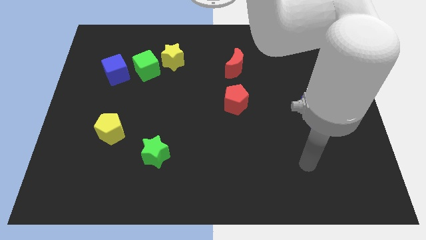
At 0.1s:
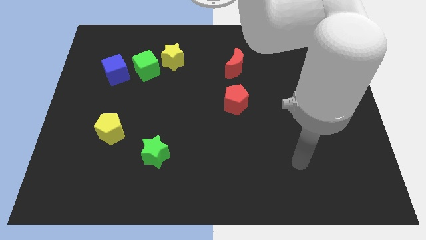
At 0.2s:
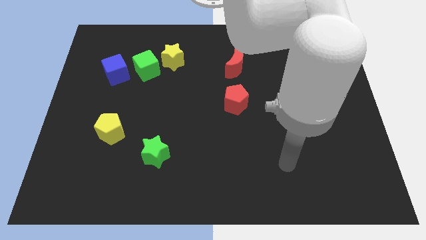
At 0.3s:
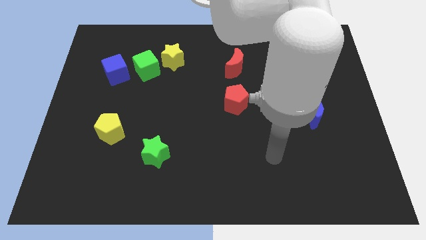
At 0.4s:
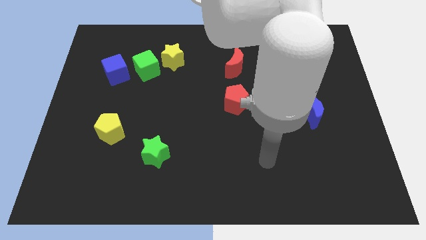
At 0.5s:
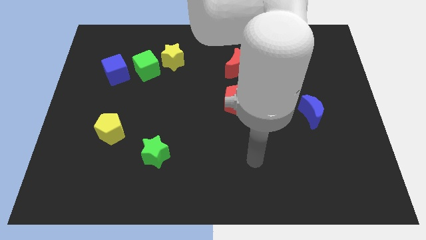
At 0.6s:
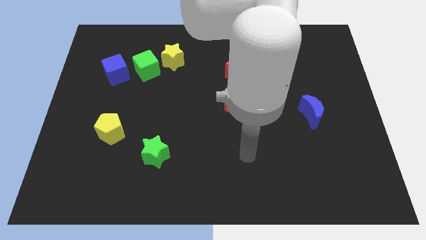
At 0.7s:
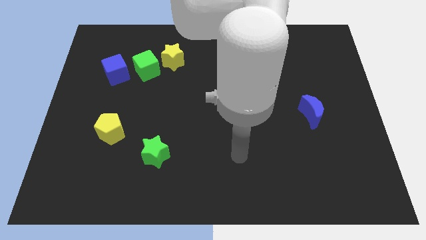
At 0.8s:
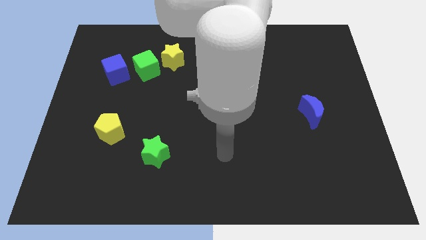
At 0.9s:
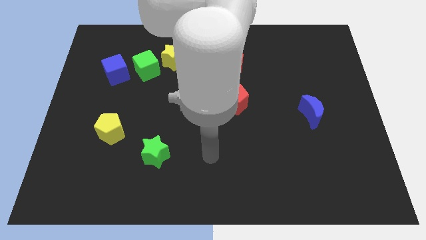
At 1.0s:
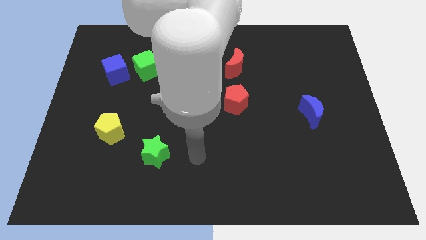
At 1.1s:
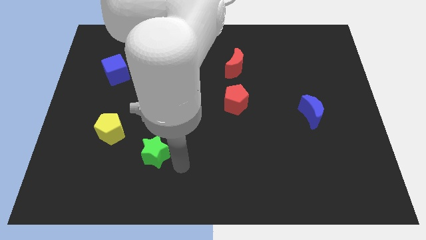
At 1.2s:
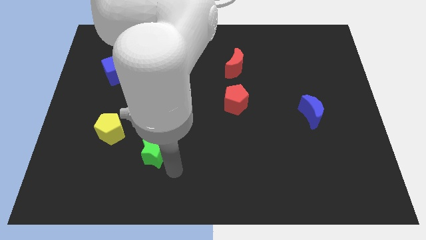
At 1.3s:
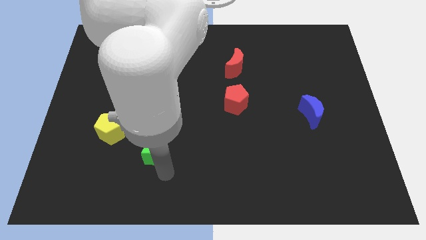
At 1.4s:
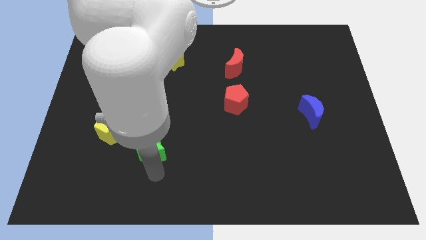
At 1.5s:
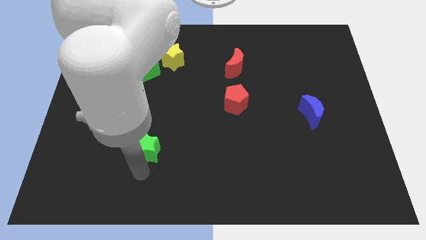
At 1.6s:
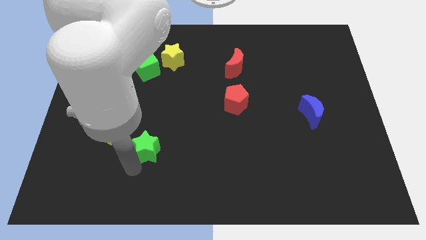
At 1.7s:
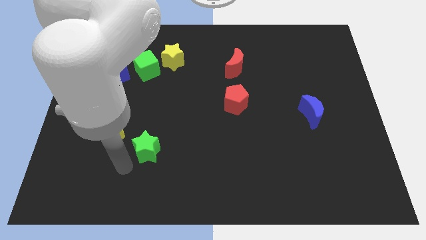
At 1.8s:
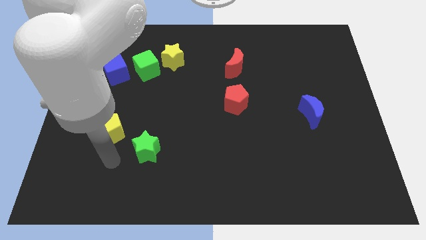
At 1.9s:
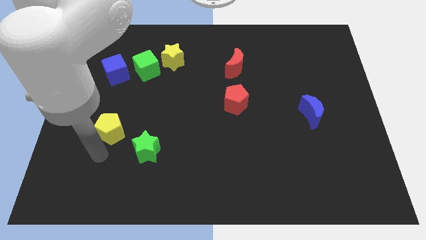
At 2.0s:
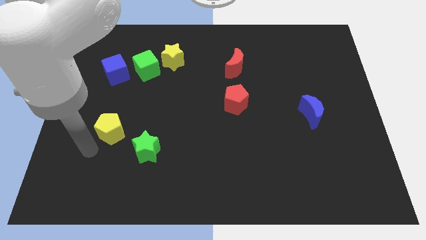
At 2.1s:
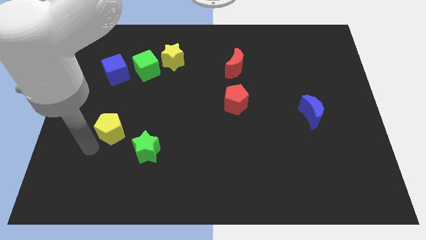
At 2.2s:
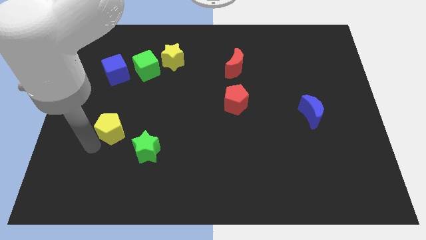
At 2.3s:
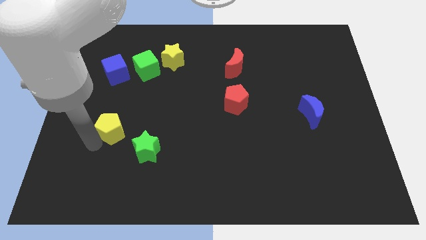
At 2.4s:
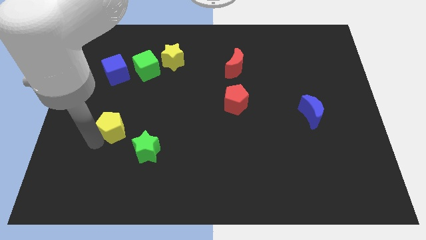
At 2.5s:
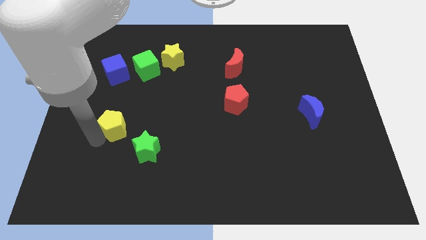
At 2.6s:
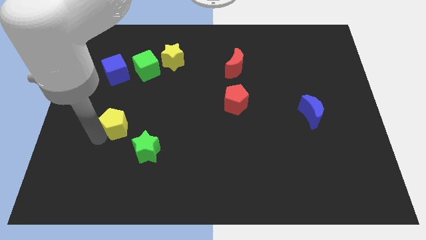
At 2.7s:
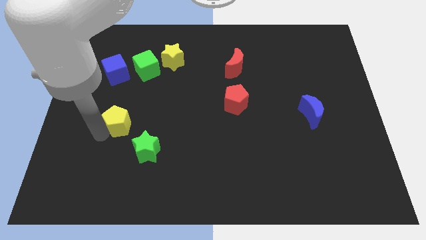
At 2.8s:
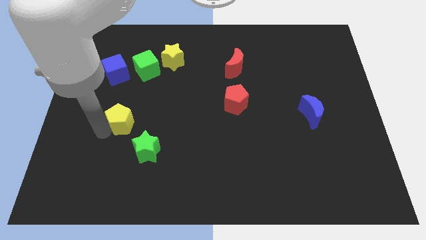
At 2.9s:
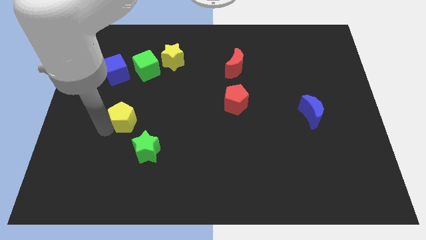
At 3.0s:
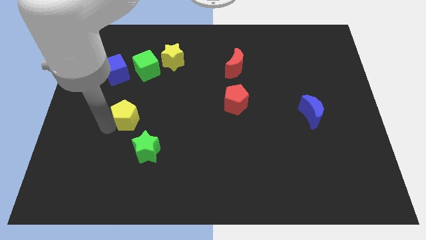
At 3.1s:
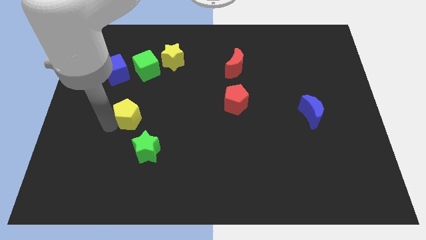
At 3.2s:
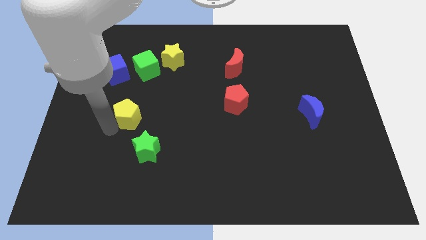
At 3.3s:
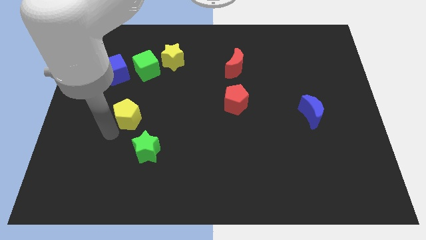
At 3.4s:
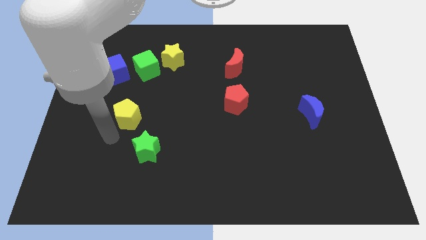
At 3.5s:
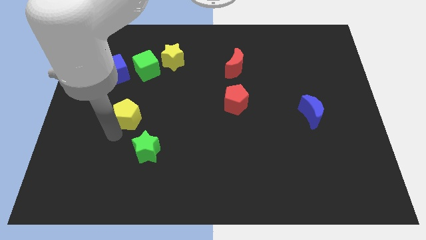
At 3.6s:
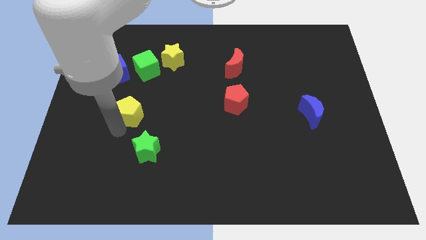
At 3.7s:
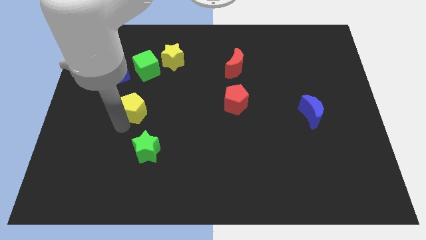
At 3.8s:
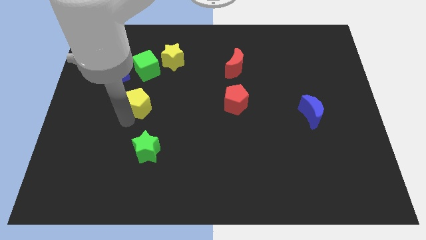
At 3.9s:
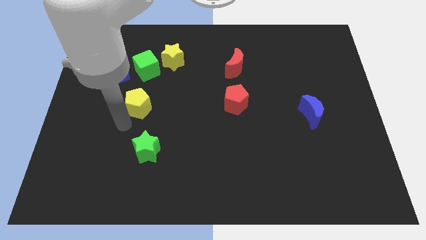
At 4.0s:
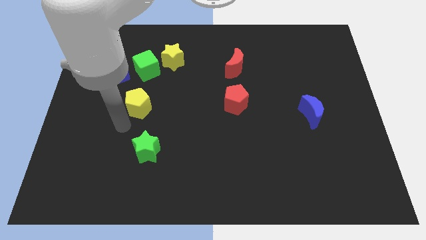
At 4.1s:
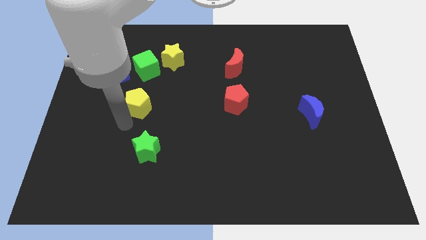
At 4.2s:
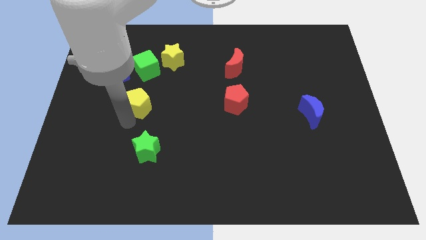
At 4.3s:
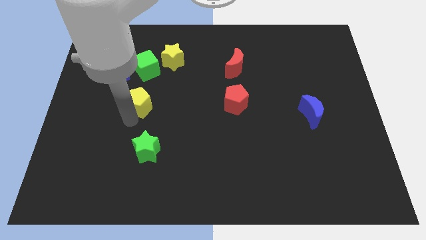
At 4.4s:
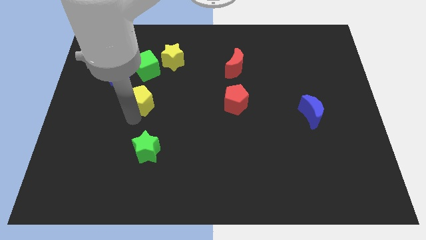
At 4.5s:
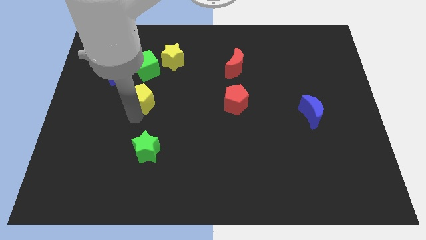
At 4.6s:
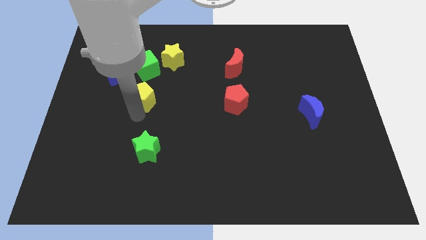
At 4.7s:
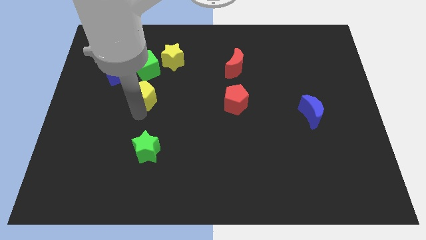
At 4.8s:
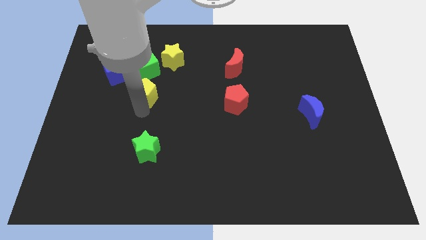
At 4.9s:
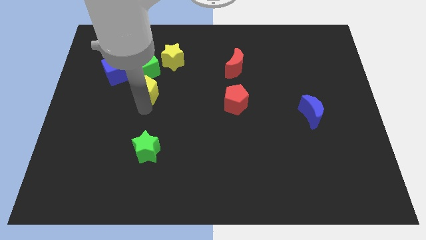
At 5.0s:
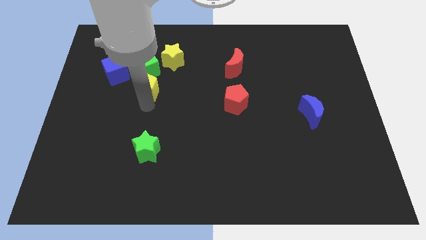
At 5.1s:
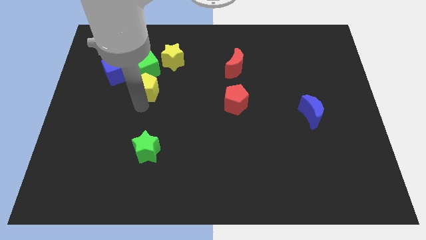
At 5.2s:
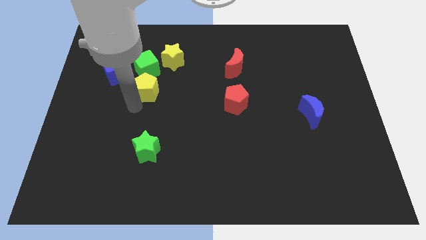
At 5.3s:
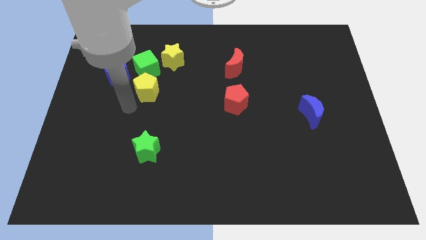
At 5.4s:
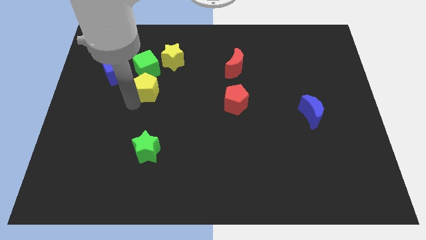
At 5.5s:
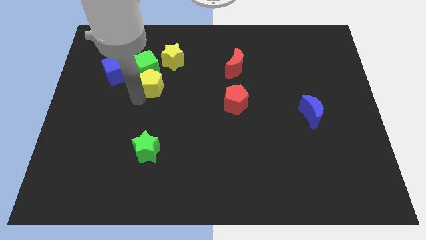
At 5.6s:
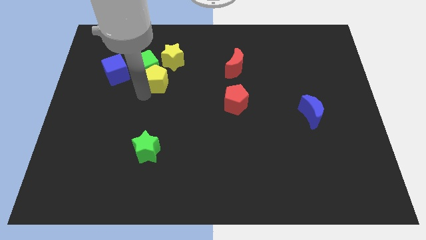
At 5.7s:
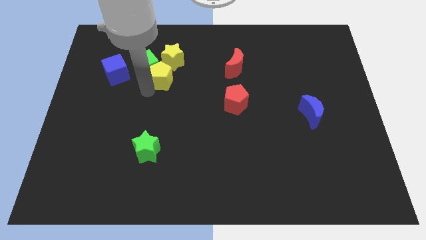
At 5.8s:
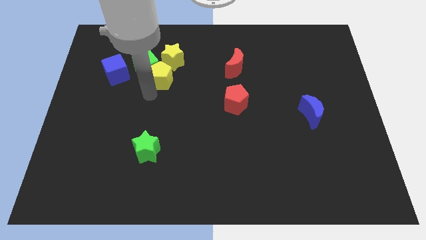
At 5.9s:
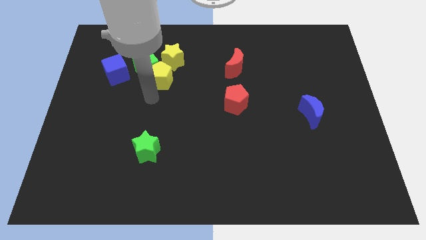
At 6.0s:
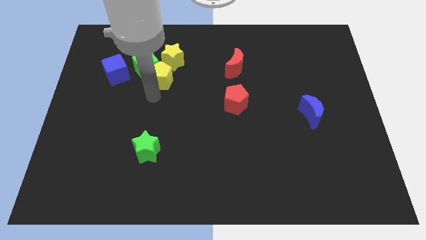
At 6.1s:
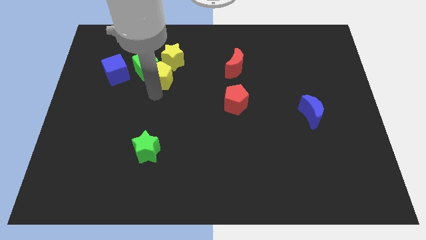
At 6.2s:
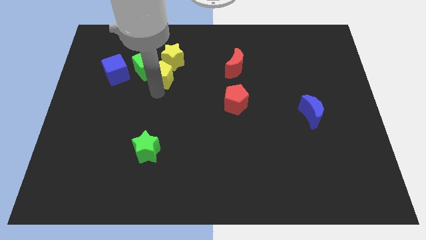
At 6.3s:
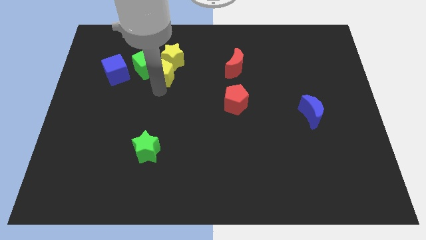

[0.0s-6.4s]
put the yellow pentagon to the yellow star
